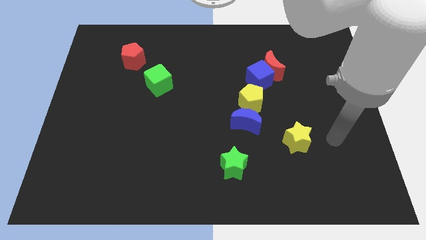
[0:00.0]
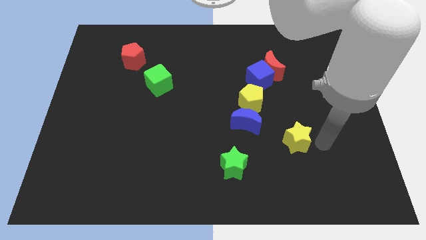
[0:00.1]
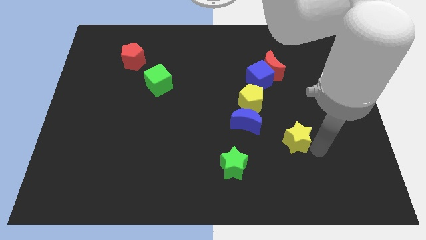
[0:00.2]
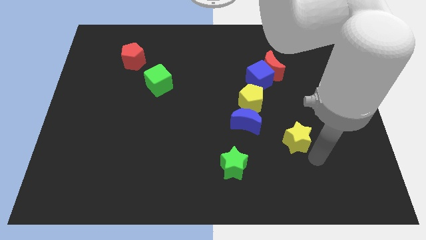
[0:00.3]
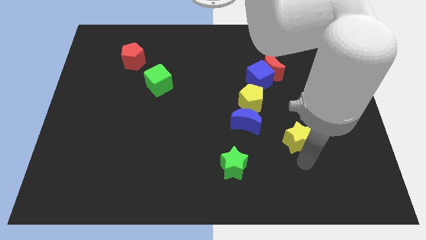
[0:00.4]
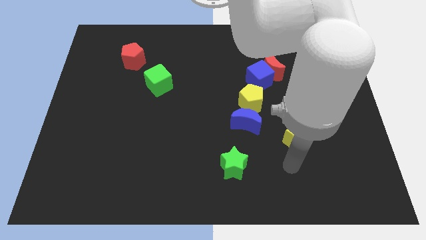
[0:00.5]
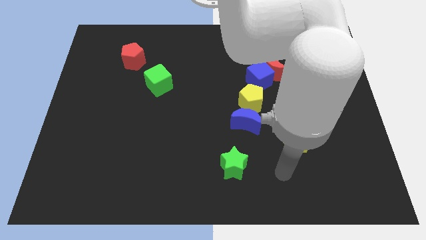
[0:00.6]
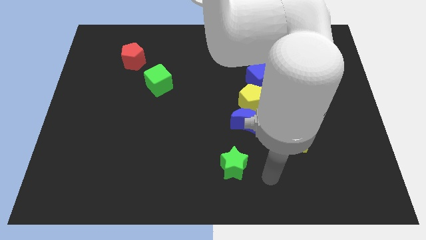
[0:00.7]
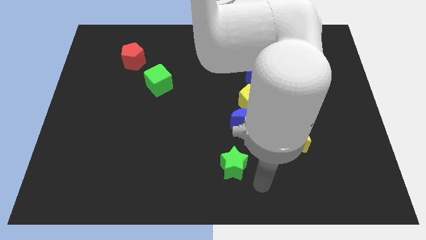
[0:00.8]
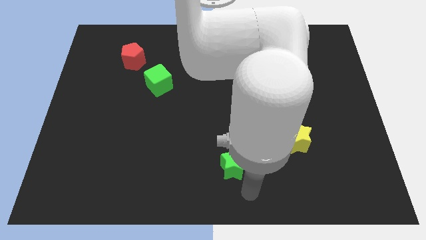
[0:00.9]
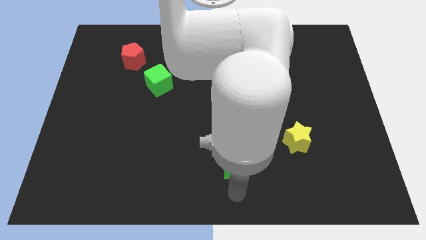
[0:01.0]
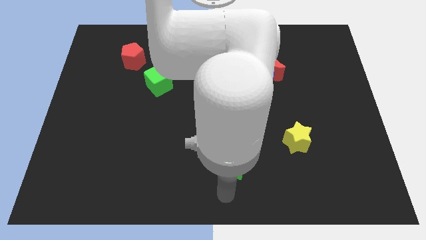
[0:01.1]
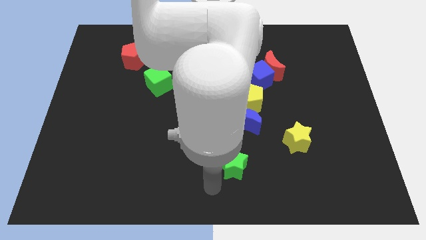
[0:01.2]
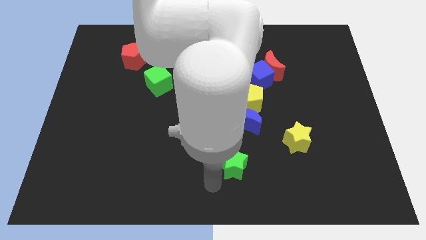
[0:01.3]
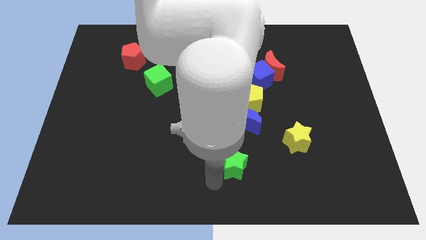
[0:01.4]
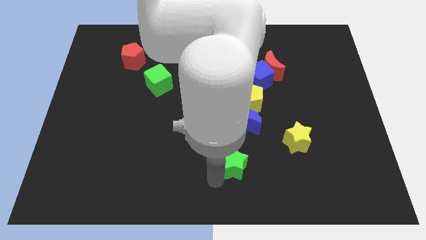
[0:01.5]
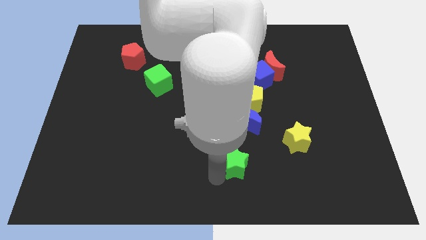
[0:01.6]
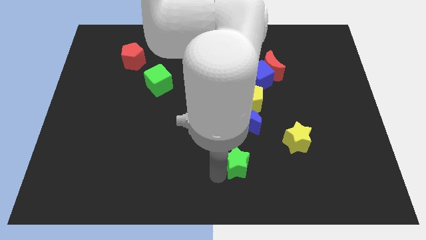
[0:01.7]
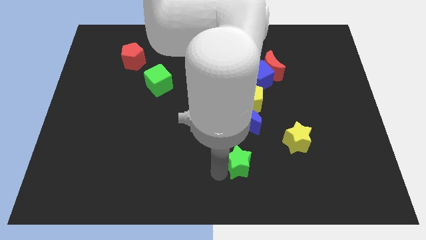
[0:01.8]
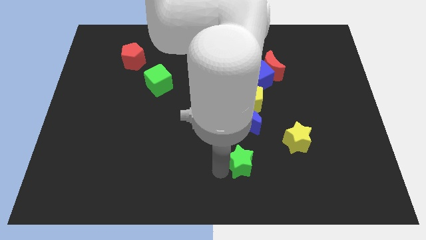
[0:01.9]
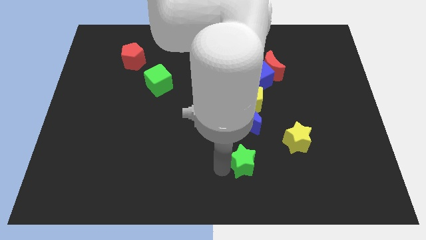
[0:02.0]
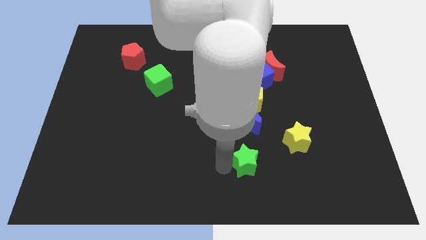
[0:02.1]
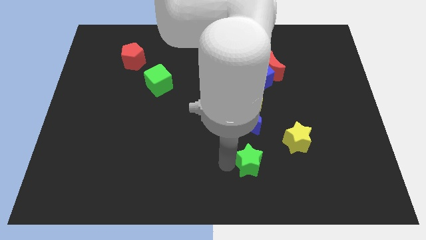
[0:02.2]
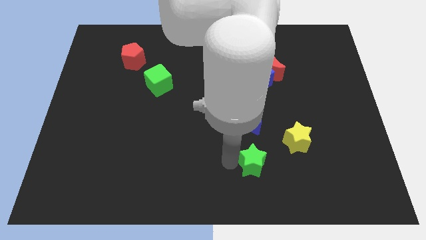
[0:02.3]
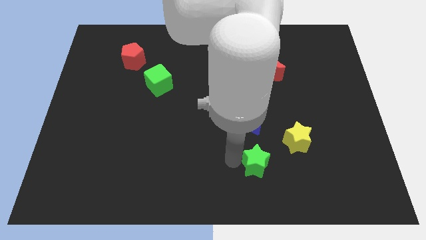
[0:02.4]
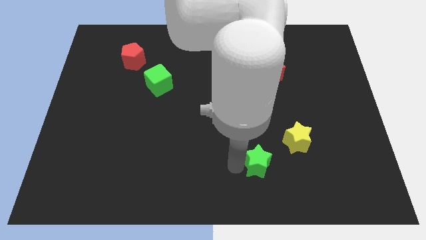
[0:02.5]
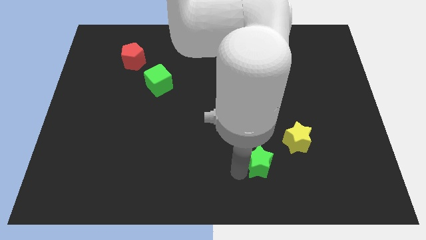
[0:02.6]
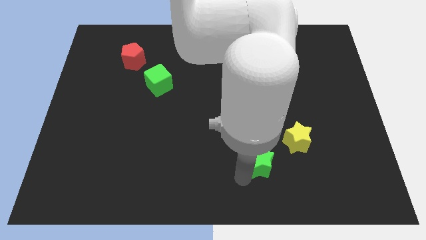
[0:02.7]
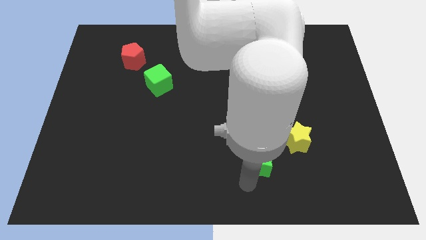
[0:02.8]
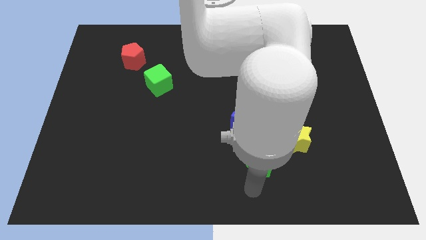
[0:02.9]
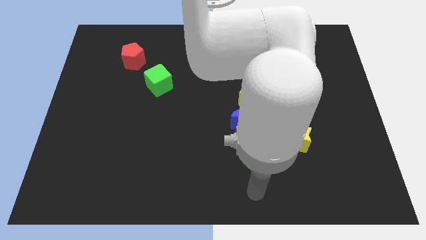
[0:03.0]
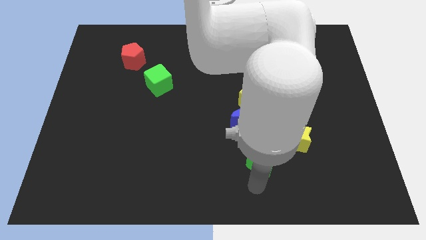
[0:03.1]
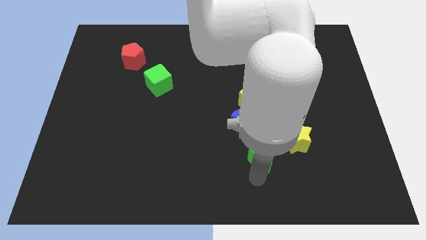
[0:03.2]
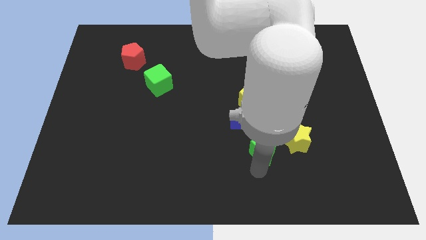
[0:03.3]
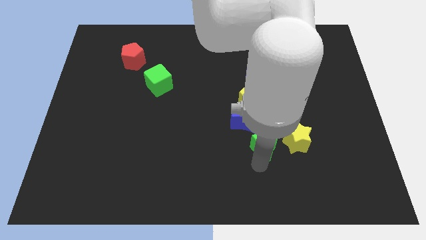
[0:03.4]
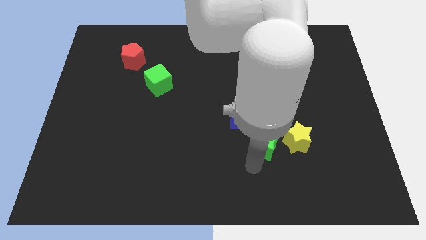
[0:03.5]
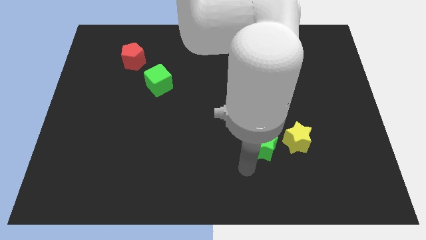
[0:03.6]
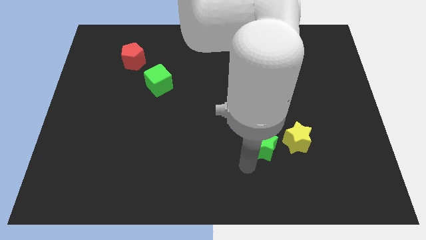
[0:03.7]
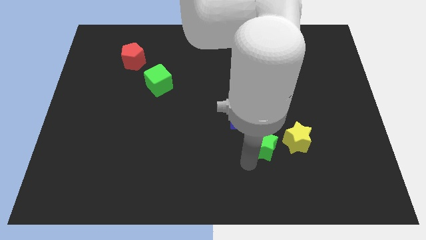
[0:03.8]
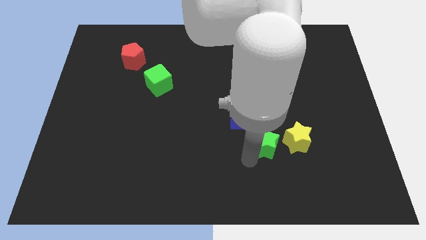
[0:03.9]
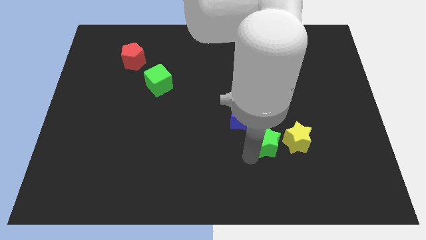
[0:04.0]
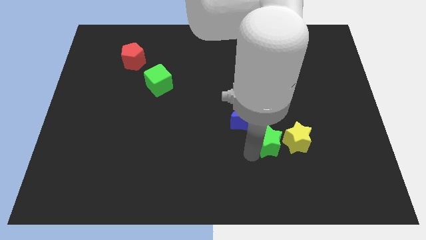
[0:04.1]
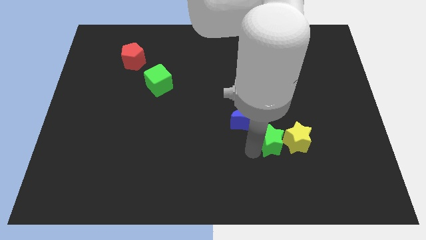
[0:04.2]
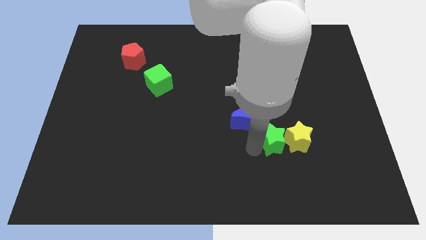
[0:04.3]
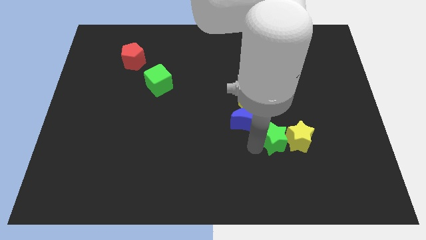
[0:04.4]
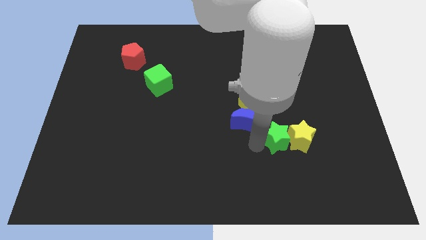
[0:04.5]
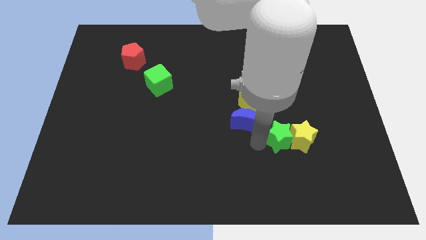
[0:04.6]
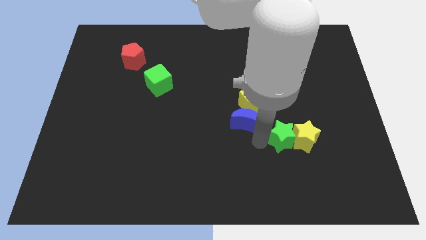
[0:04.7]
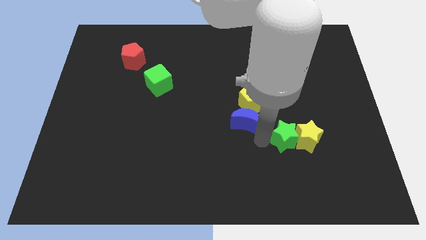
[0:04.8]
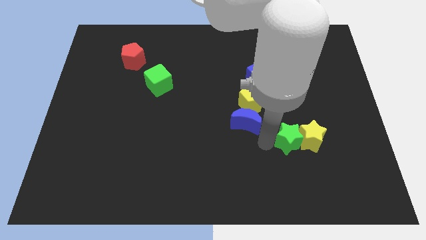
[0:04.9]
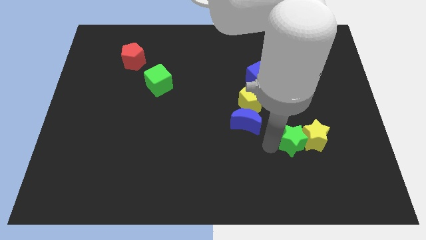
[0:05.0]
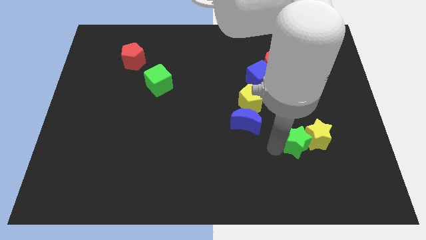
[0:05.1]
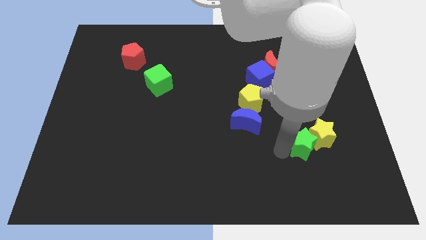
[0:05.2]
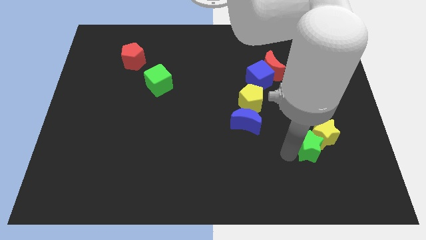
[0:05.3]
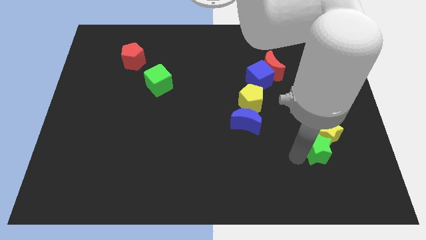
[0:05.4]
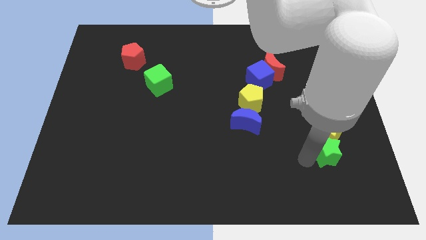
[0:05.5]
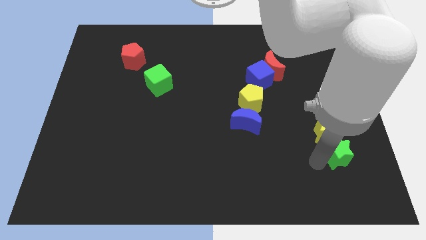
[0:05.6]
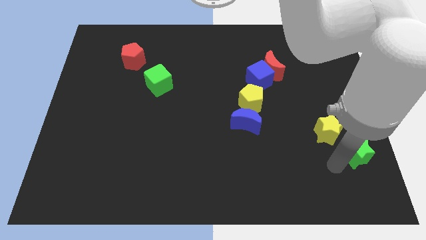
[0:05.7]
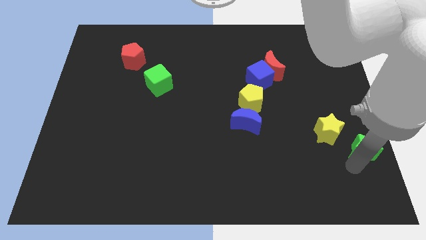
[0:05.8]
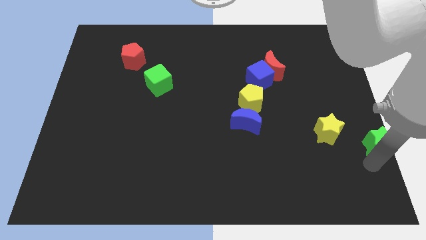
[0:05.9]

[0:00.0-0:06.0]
slide the green star to the right side
